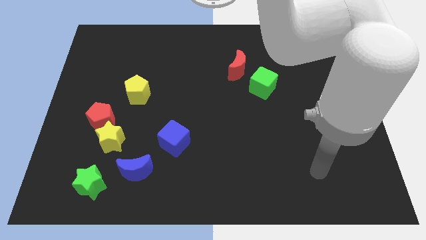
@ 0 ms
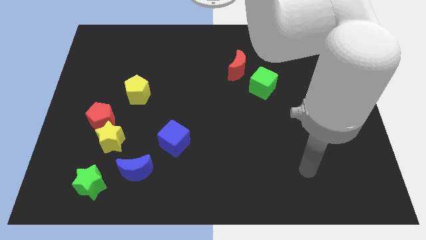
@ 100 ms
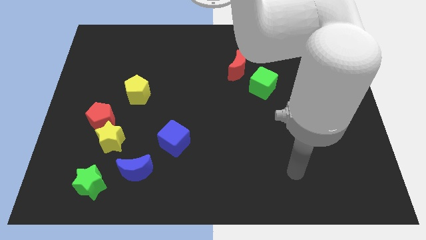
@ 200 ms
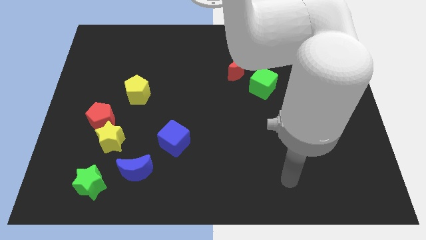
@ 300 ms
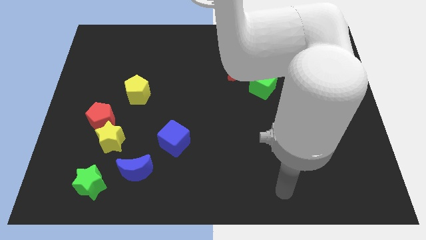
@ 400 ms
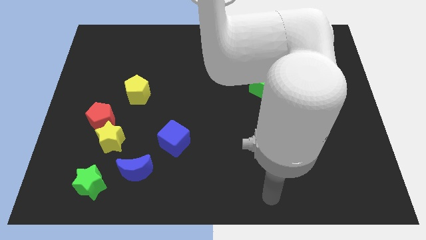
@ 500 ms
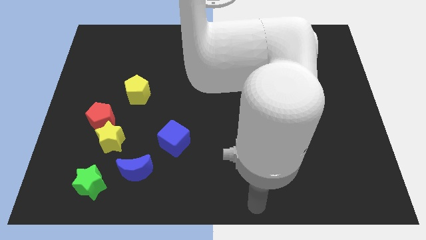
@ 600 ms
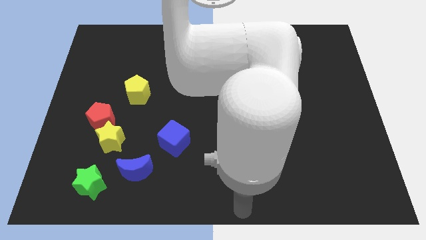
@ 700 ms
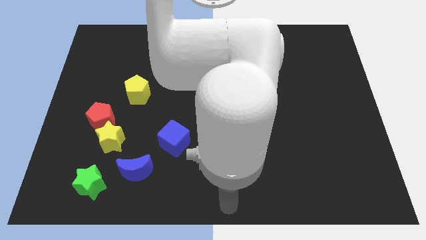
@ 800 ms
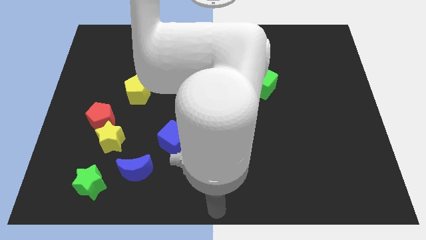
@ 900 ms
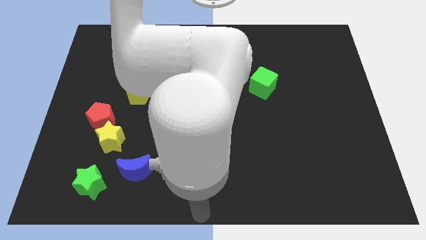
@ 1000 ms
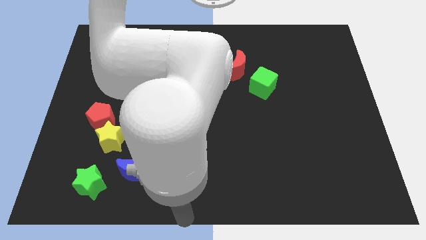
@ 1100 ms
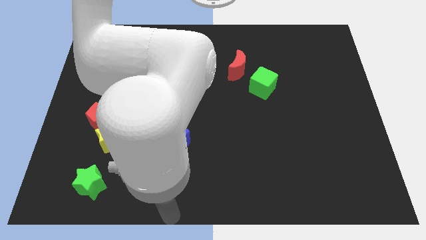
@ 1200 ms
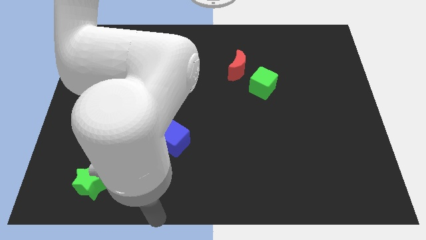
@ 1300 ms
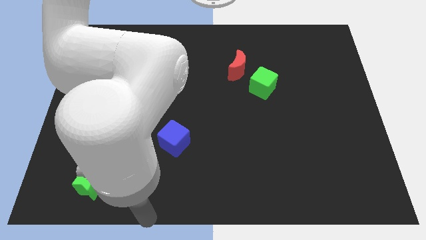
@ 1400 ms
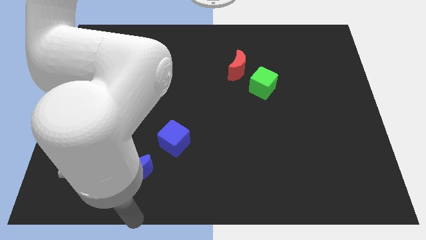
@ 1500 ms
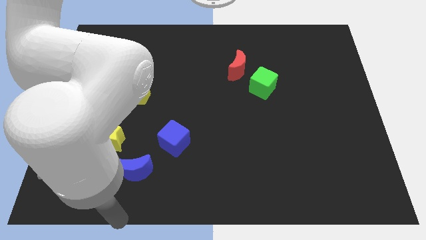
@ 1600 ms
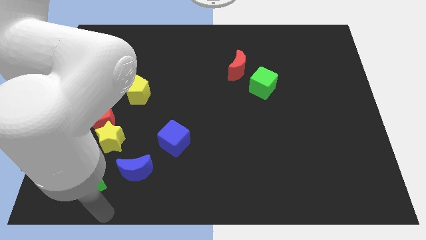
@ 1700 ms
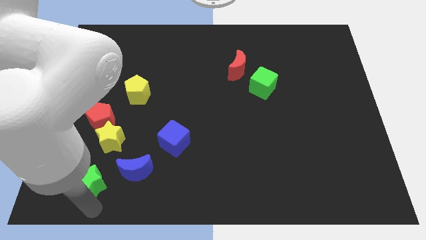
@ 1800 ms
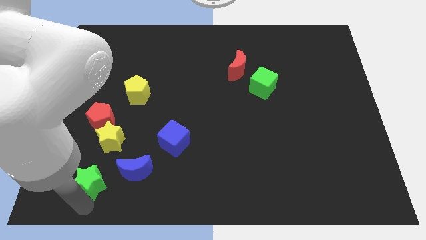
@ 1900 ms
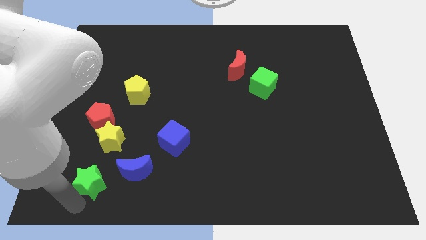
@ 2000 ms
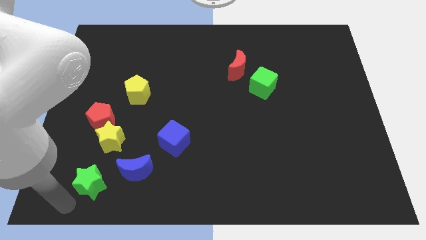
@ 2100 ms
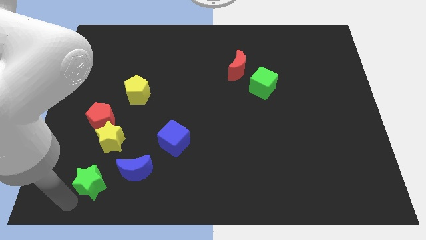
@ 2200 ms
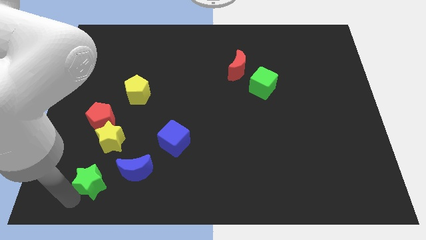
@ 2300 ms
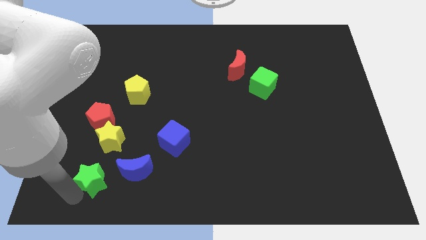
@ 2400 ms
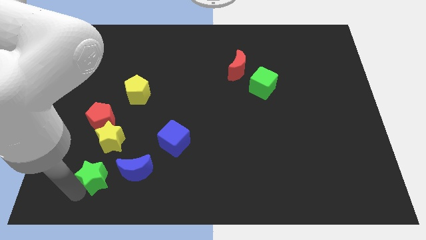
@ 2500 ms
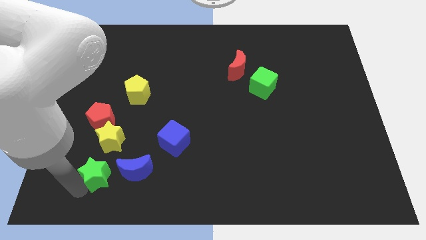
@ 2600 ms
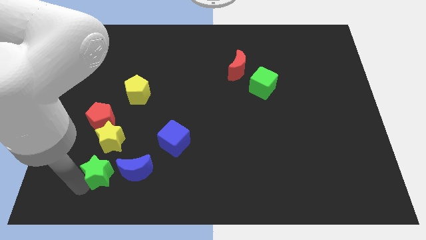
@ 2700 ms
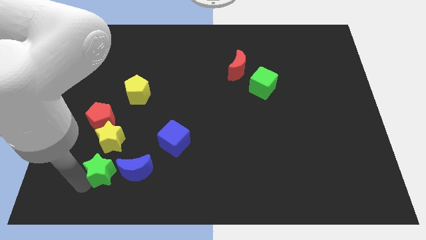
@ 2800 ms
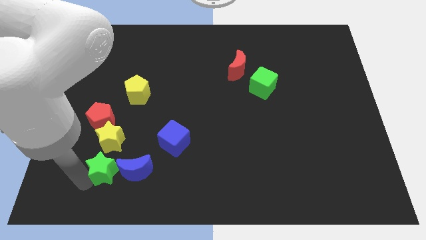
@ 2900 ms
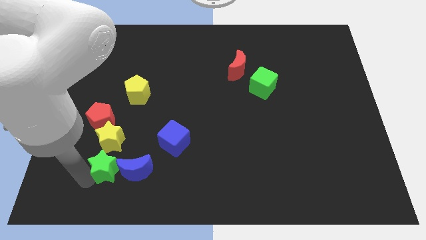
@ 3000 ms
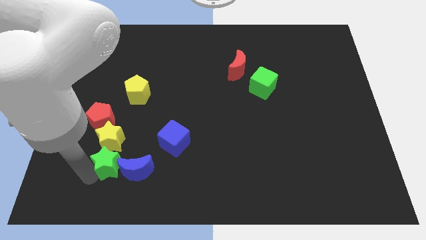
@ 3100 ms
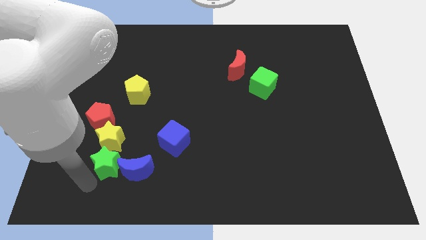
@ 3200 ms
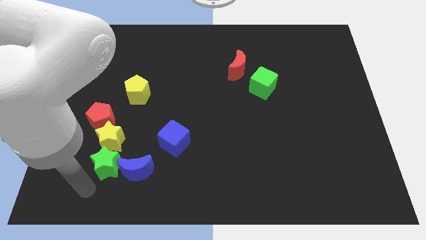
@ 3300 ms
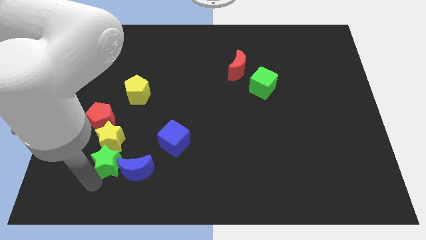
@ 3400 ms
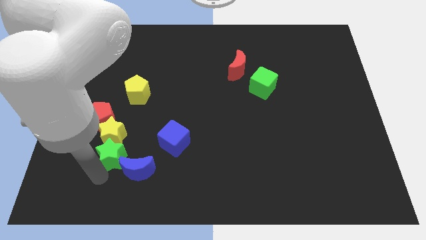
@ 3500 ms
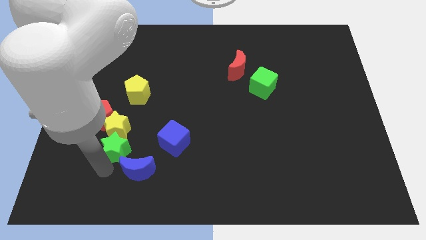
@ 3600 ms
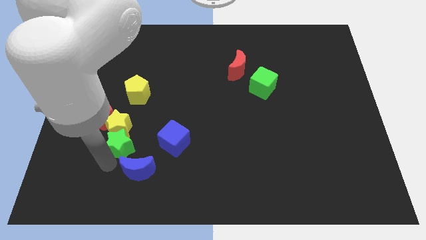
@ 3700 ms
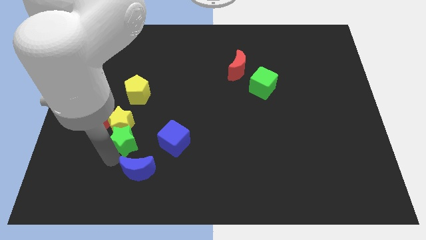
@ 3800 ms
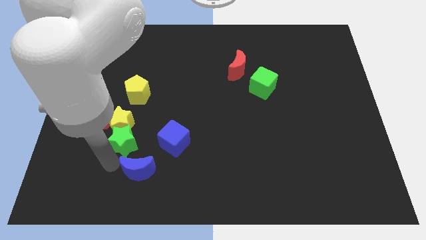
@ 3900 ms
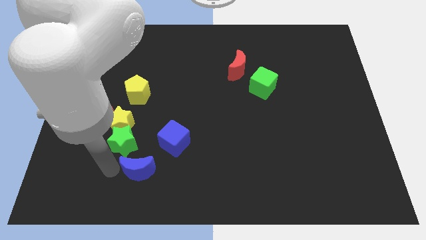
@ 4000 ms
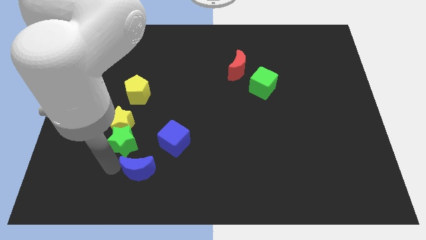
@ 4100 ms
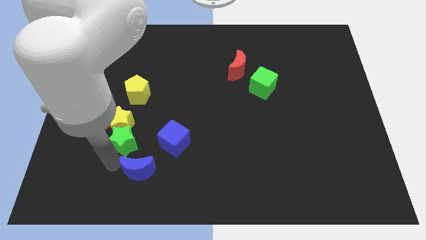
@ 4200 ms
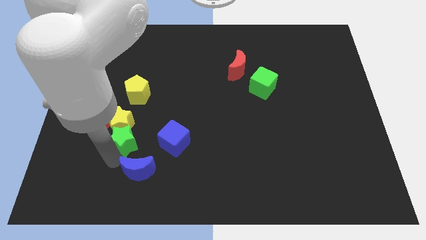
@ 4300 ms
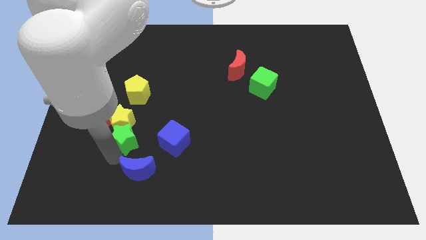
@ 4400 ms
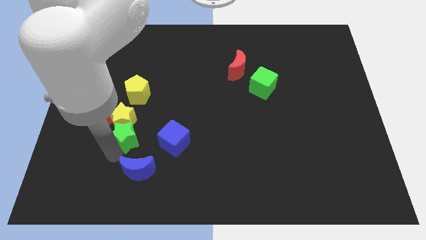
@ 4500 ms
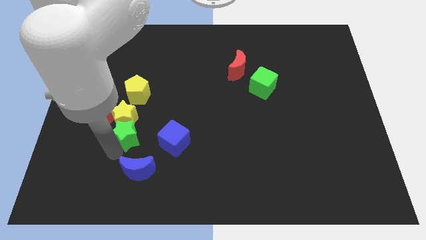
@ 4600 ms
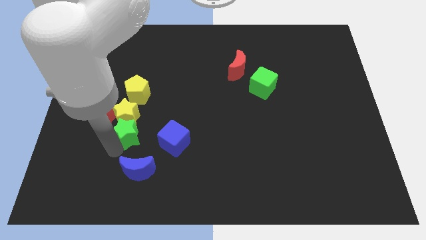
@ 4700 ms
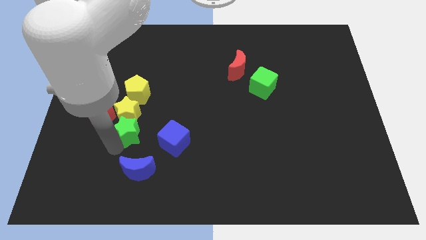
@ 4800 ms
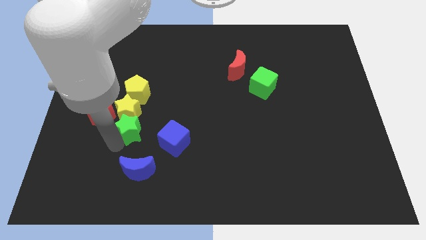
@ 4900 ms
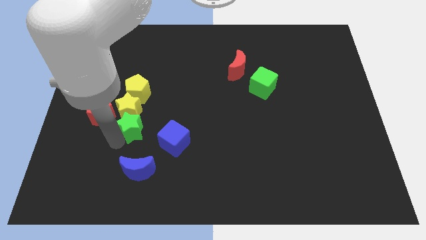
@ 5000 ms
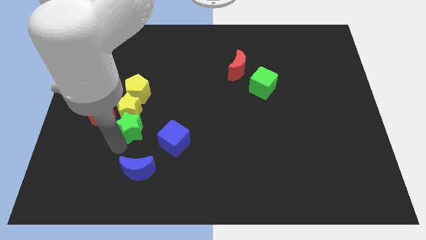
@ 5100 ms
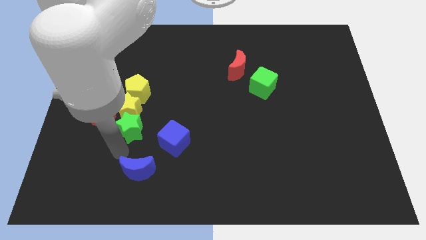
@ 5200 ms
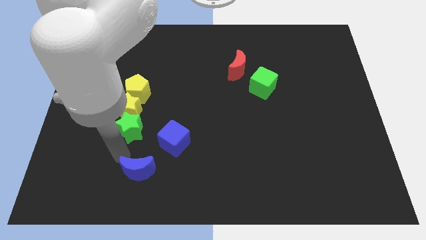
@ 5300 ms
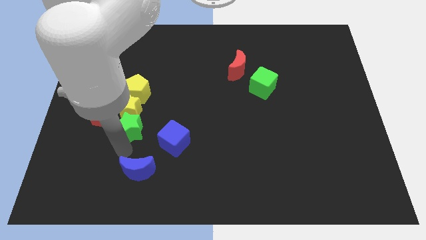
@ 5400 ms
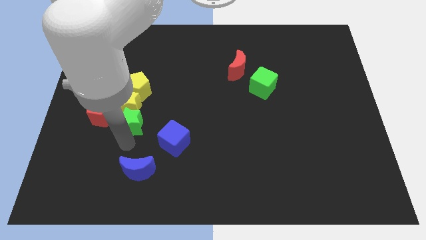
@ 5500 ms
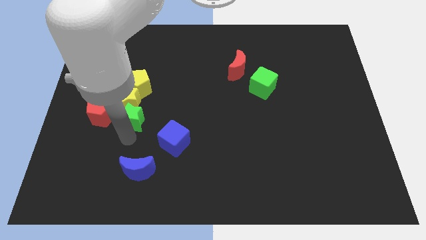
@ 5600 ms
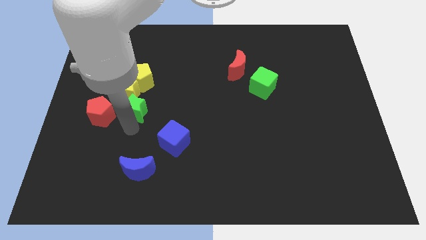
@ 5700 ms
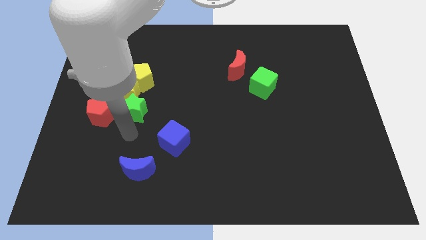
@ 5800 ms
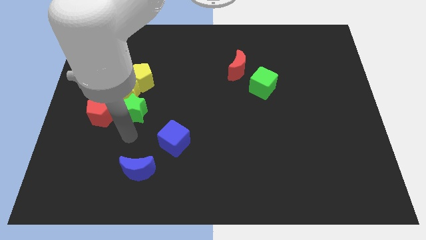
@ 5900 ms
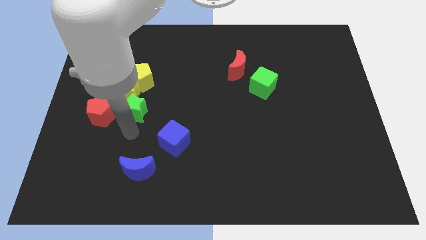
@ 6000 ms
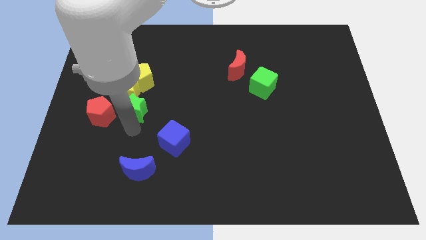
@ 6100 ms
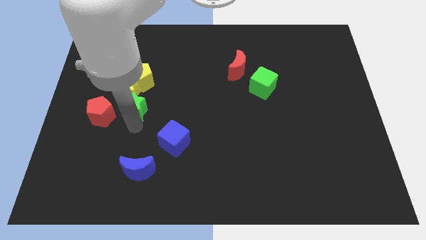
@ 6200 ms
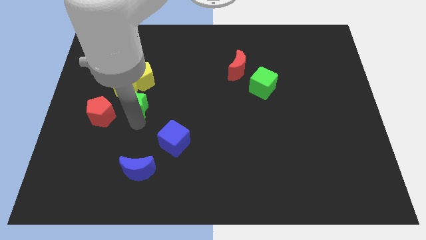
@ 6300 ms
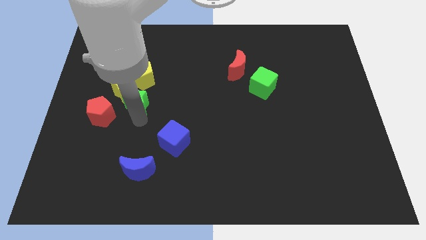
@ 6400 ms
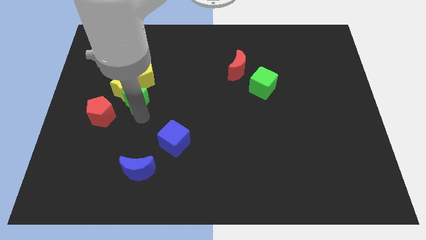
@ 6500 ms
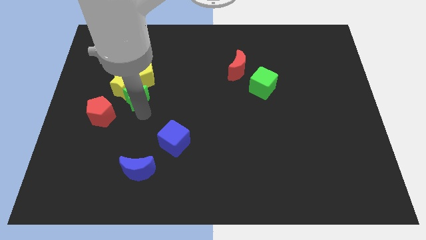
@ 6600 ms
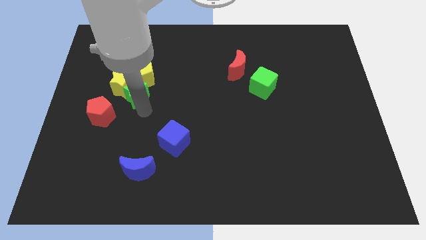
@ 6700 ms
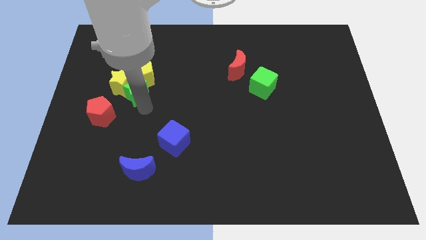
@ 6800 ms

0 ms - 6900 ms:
move the green star to the yellow pentagon
